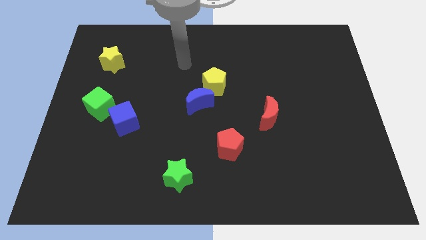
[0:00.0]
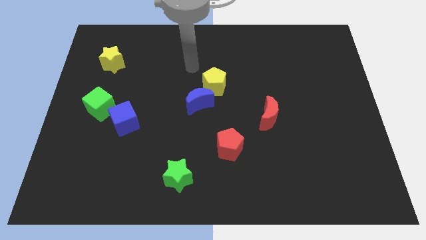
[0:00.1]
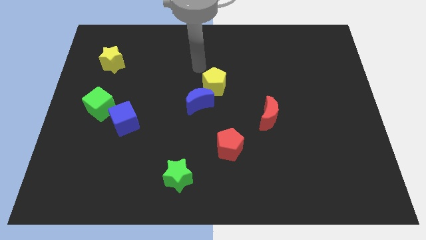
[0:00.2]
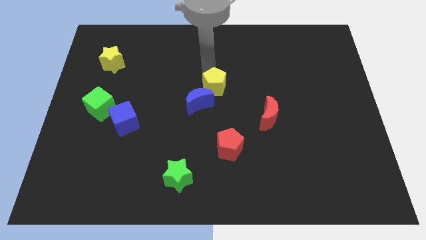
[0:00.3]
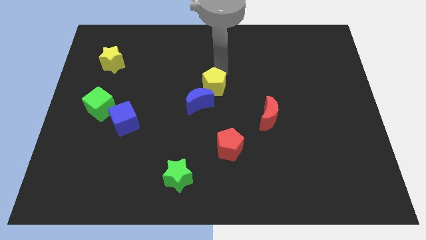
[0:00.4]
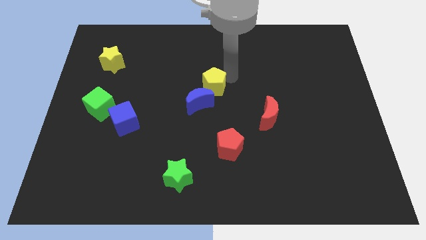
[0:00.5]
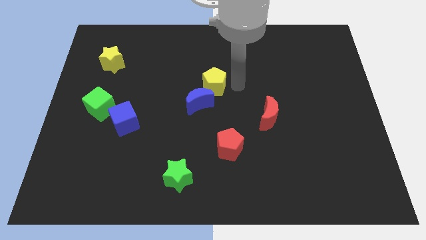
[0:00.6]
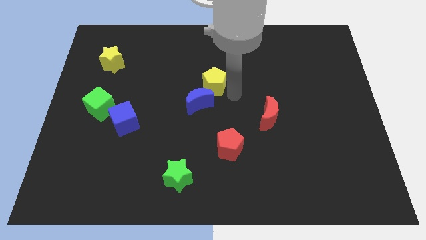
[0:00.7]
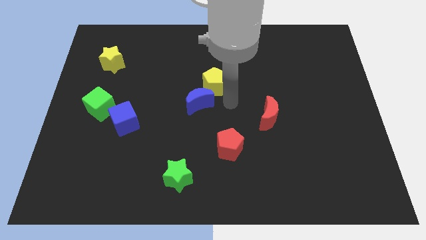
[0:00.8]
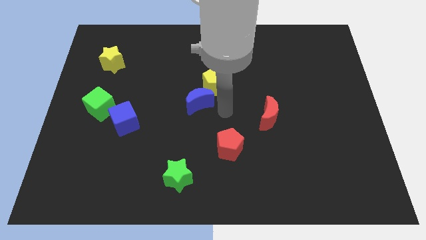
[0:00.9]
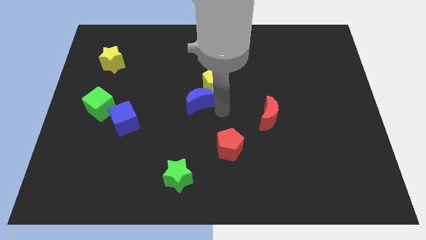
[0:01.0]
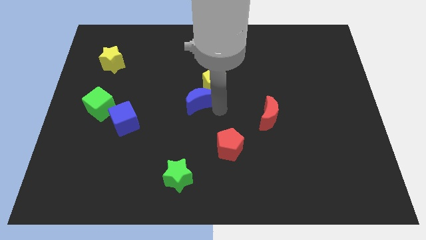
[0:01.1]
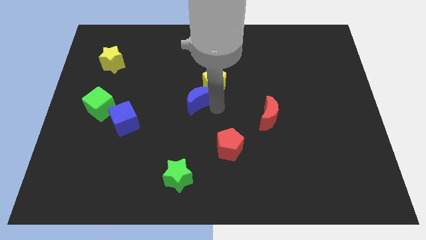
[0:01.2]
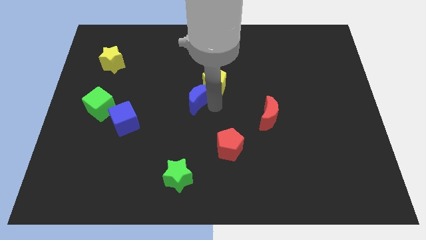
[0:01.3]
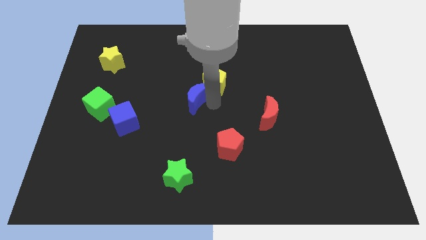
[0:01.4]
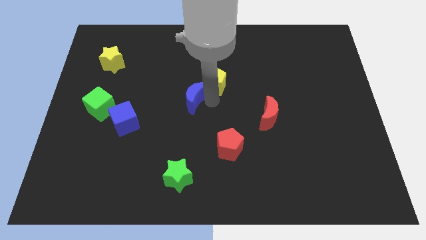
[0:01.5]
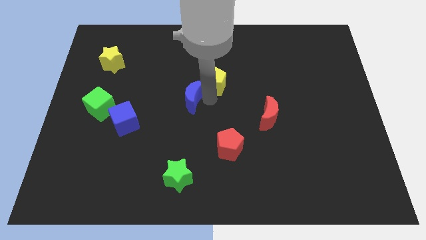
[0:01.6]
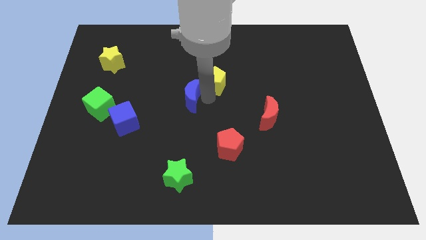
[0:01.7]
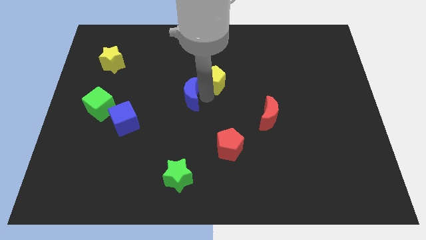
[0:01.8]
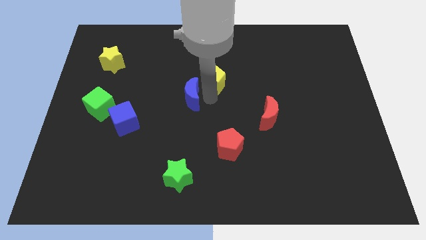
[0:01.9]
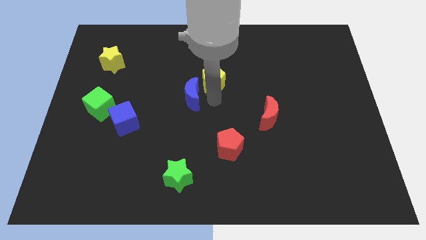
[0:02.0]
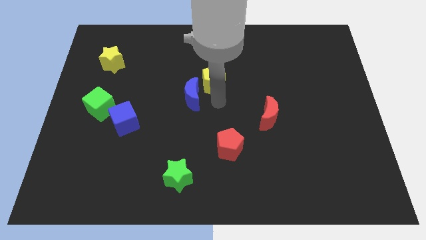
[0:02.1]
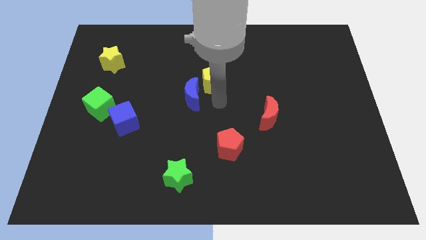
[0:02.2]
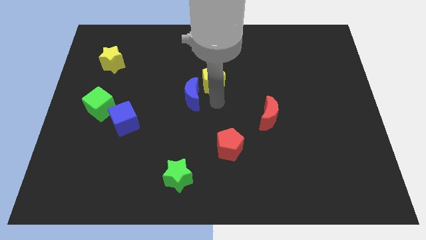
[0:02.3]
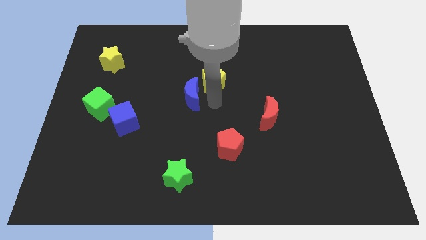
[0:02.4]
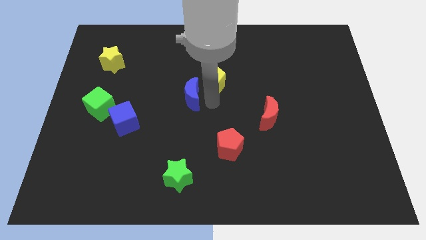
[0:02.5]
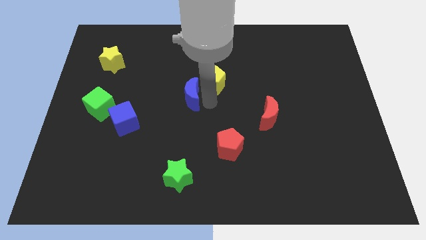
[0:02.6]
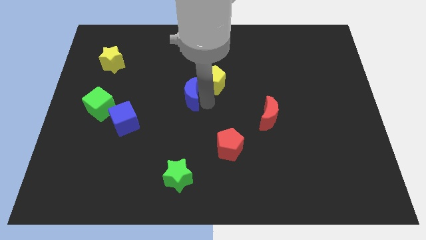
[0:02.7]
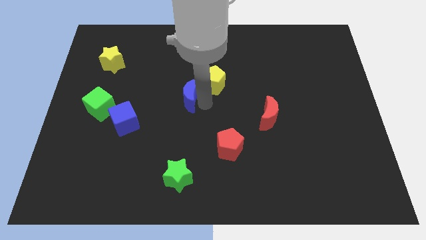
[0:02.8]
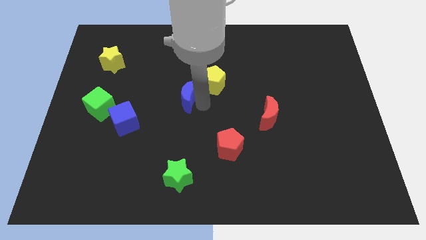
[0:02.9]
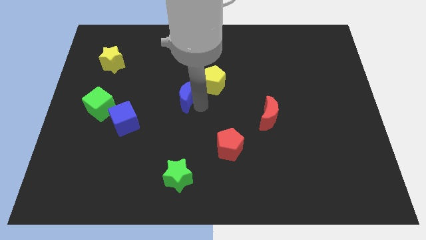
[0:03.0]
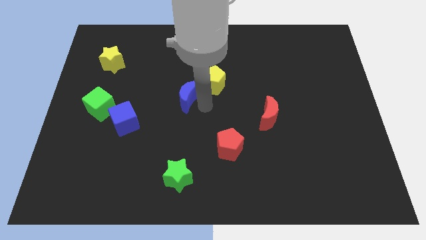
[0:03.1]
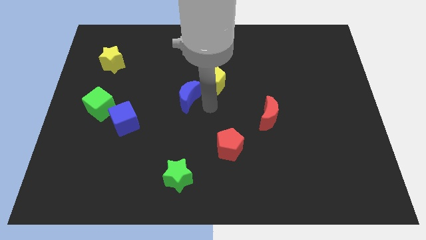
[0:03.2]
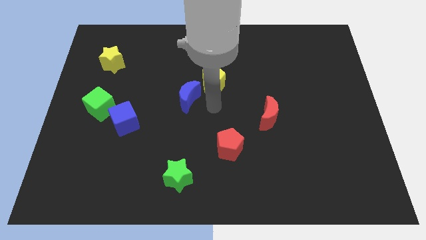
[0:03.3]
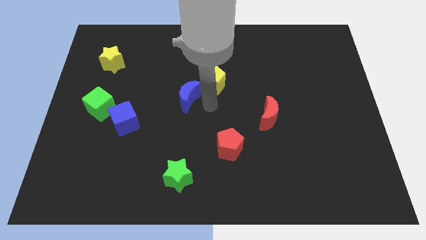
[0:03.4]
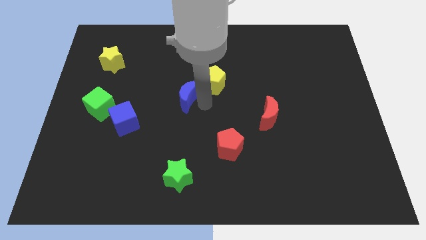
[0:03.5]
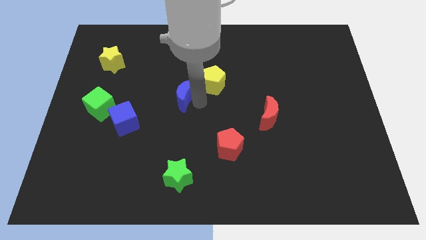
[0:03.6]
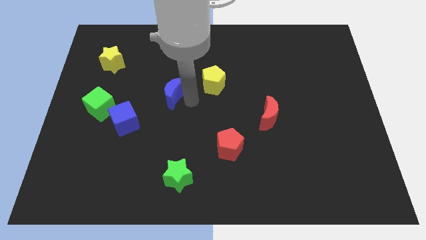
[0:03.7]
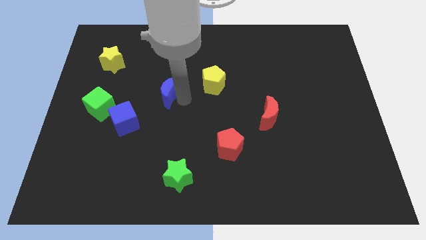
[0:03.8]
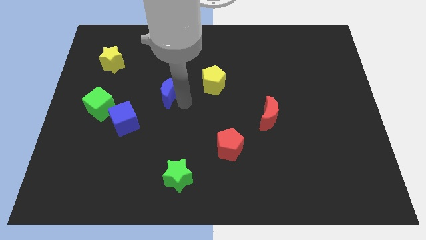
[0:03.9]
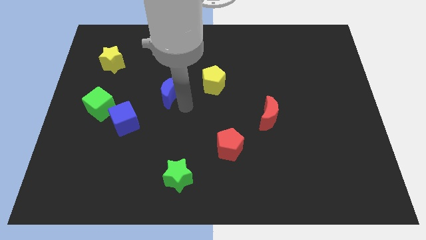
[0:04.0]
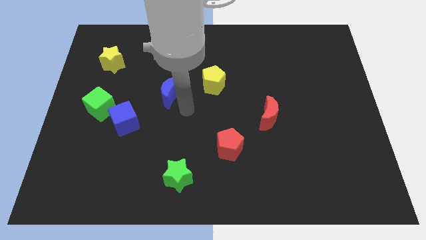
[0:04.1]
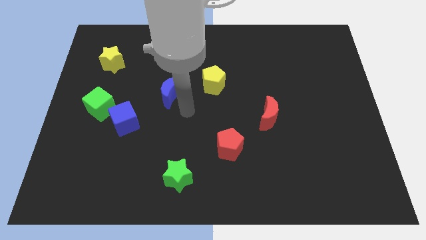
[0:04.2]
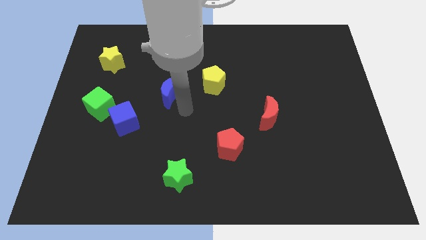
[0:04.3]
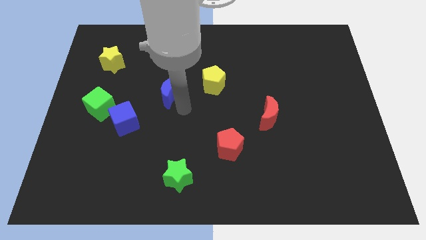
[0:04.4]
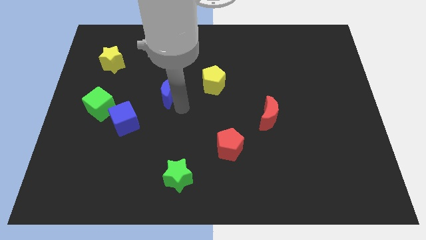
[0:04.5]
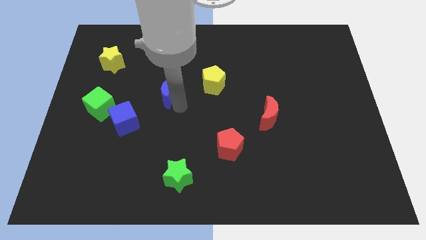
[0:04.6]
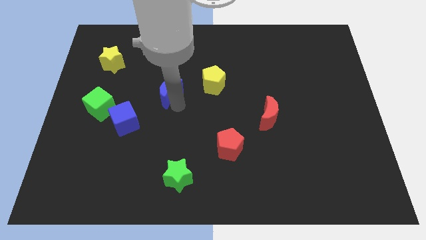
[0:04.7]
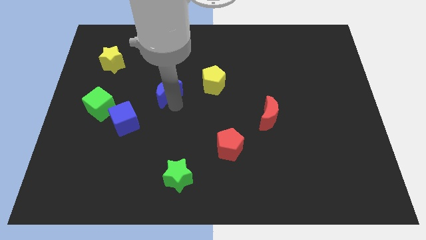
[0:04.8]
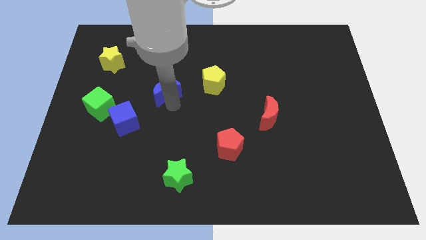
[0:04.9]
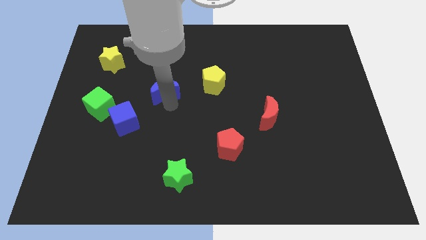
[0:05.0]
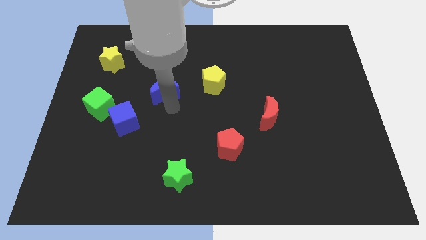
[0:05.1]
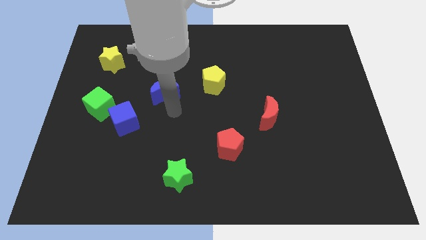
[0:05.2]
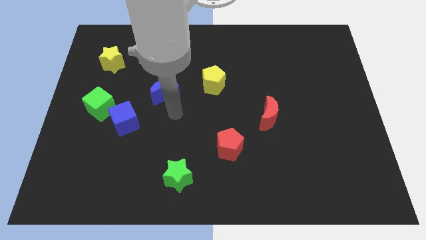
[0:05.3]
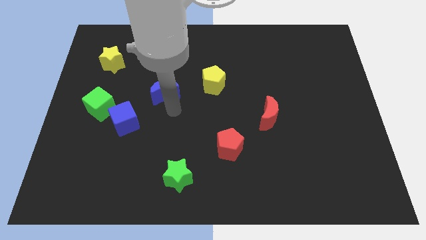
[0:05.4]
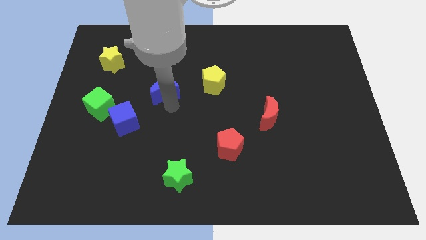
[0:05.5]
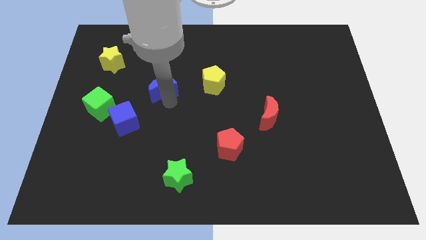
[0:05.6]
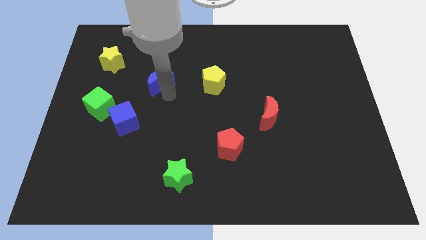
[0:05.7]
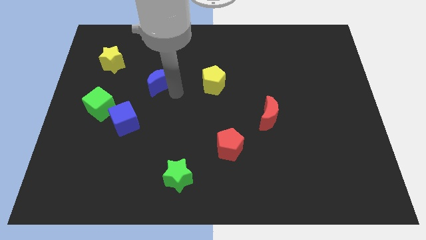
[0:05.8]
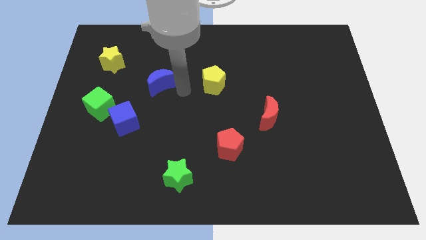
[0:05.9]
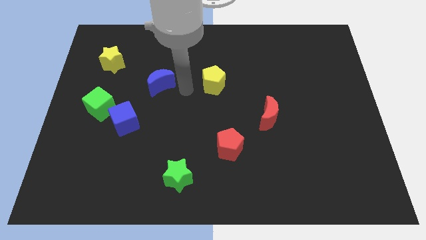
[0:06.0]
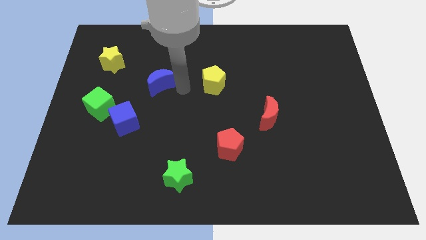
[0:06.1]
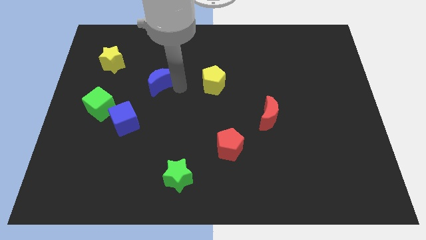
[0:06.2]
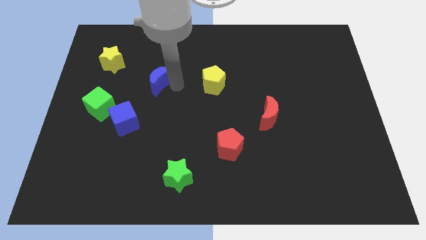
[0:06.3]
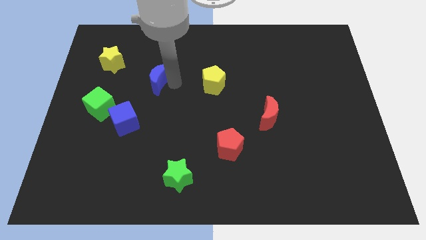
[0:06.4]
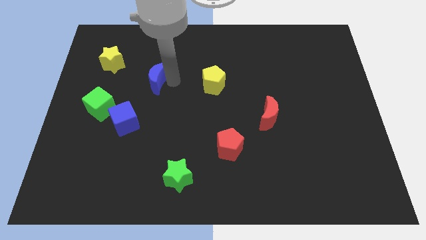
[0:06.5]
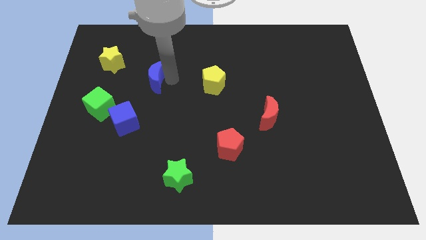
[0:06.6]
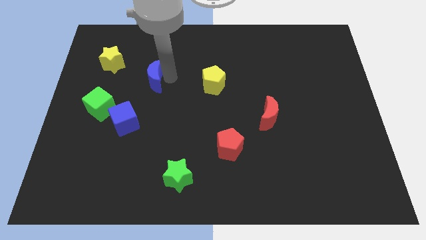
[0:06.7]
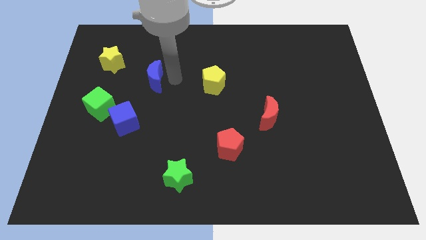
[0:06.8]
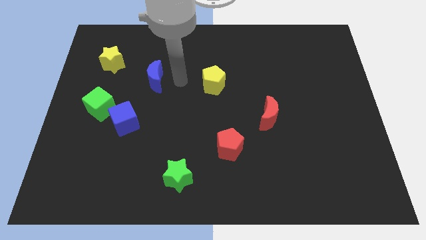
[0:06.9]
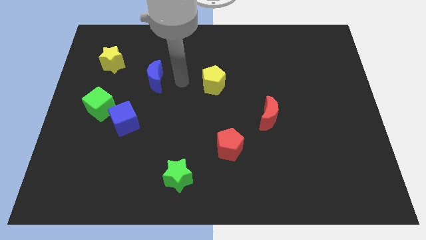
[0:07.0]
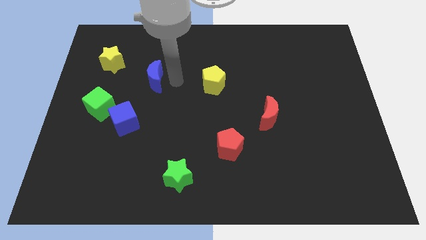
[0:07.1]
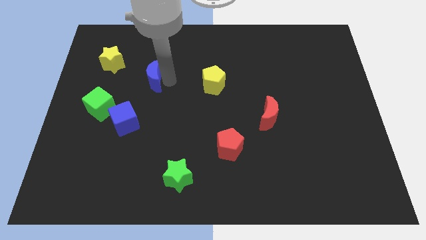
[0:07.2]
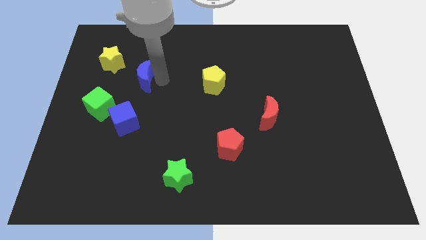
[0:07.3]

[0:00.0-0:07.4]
push the blue moon diagonally down and to the right of the yellow star
